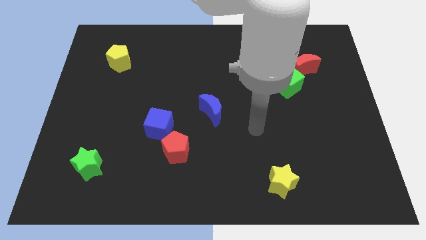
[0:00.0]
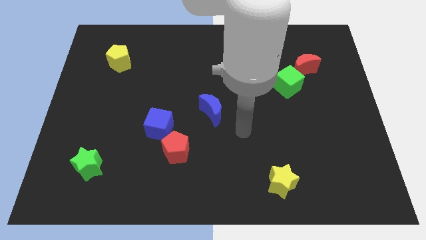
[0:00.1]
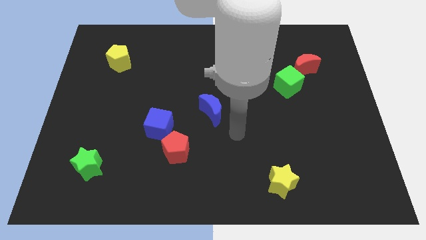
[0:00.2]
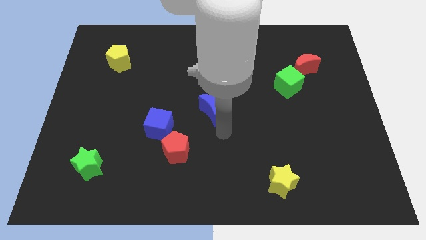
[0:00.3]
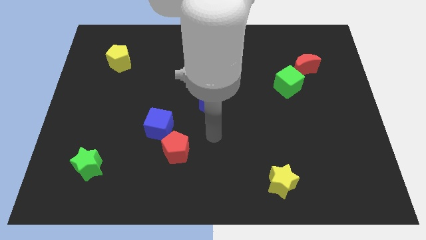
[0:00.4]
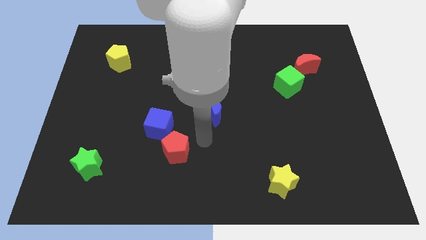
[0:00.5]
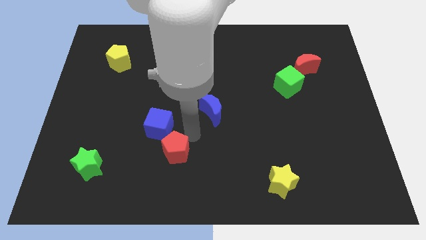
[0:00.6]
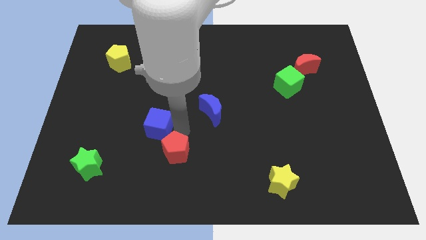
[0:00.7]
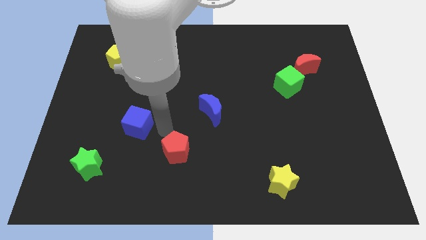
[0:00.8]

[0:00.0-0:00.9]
move the red pentagon away from the blue cube

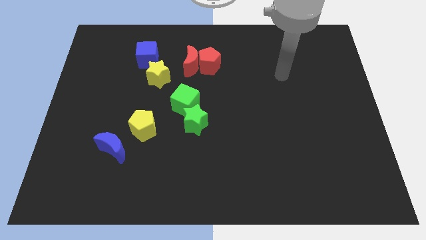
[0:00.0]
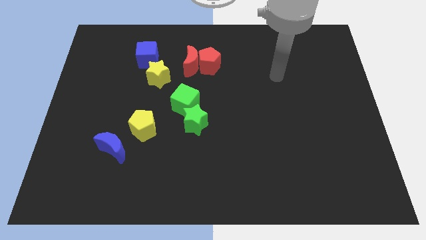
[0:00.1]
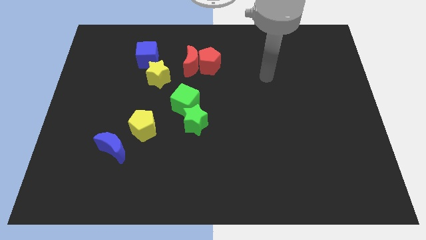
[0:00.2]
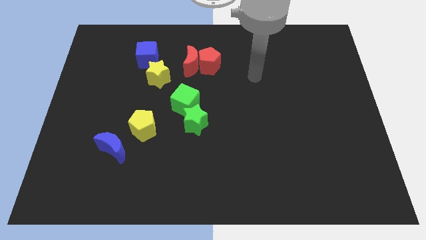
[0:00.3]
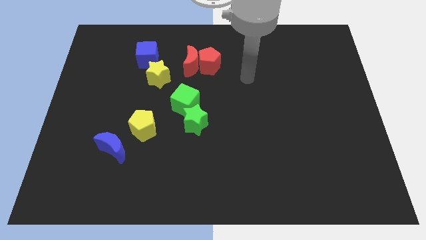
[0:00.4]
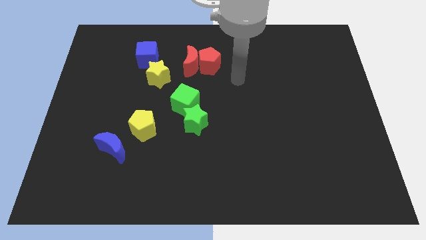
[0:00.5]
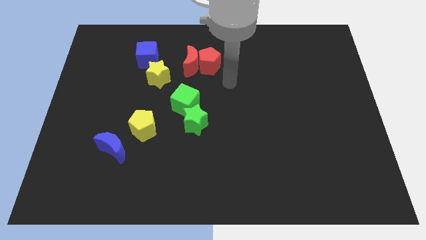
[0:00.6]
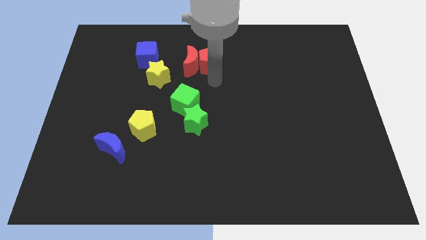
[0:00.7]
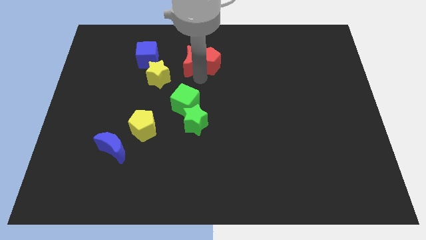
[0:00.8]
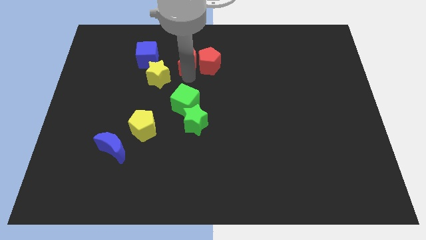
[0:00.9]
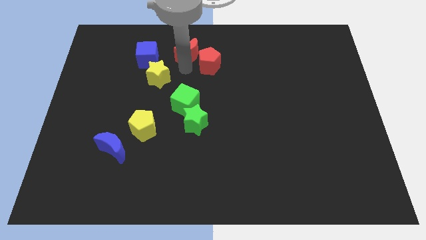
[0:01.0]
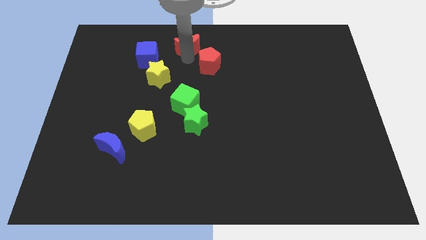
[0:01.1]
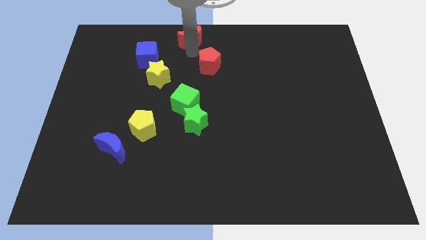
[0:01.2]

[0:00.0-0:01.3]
pull the red pentagon apart from the red moon

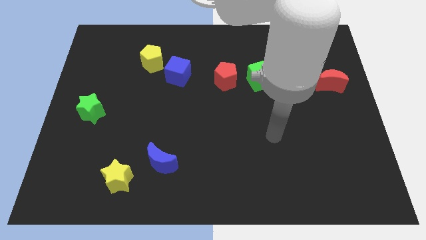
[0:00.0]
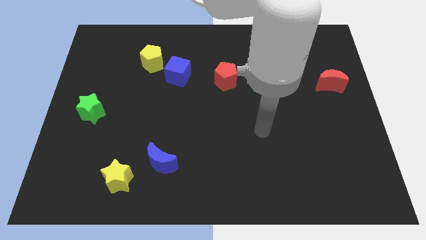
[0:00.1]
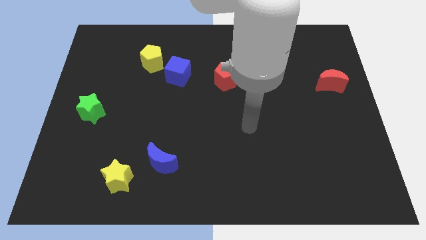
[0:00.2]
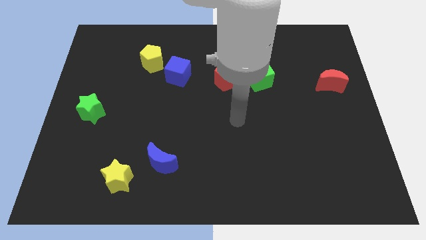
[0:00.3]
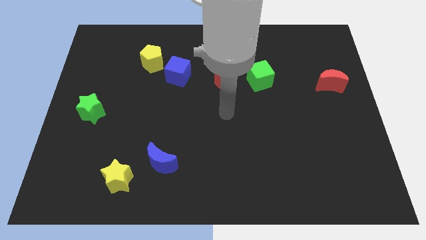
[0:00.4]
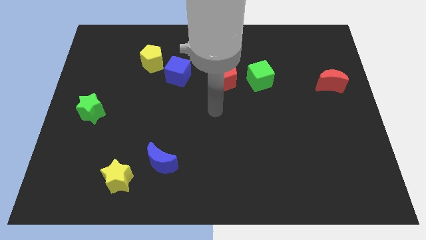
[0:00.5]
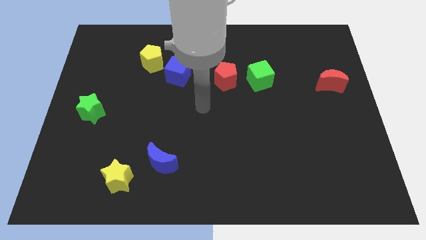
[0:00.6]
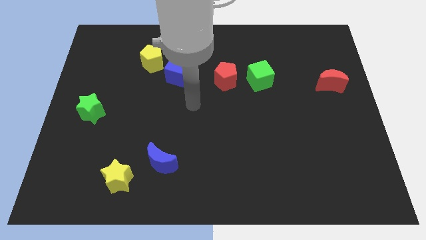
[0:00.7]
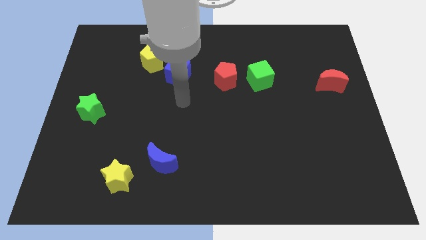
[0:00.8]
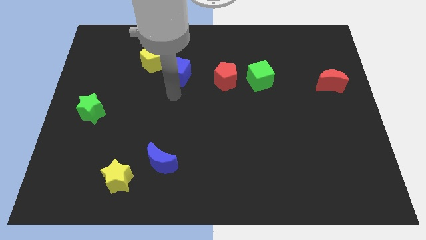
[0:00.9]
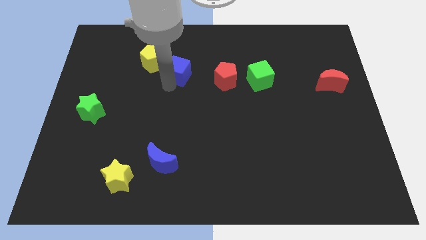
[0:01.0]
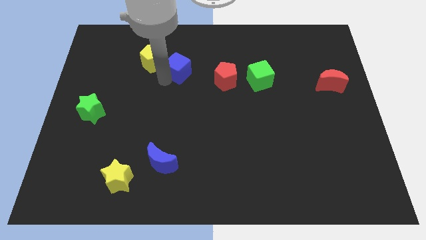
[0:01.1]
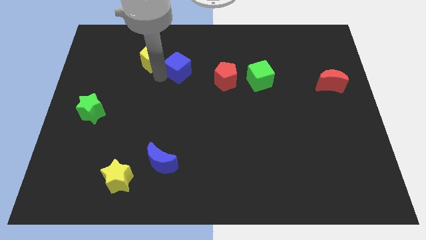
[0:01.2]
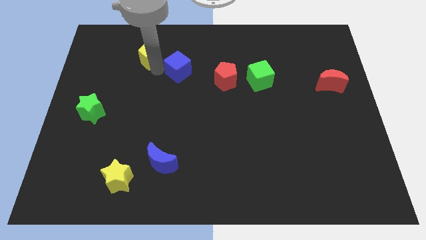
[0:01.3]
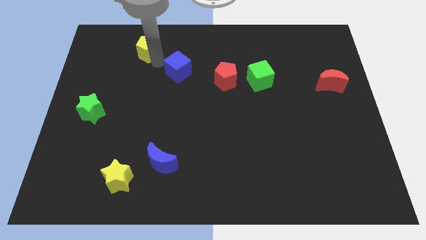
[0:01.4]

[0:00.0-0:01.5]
move the blue cube away from the yellow pentagon

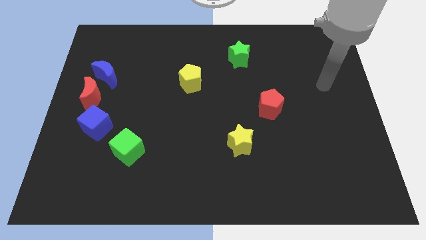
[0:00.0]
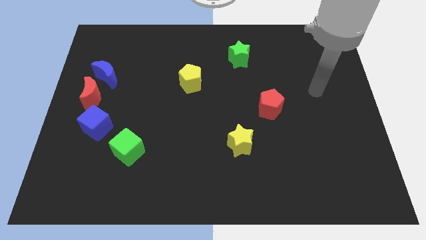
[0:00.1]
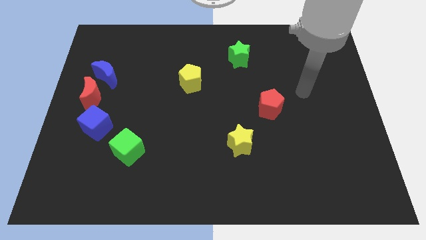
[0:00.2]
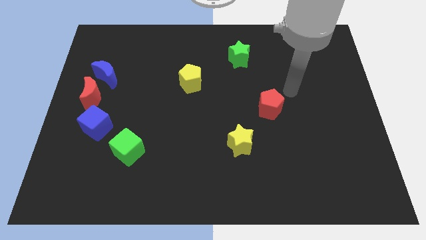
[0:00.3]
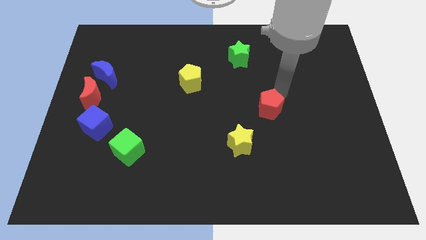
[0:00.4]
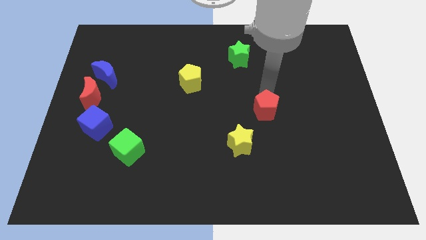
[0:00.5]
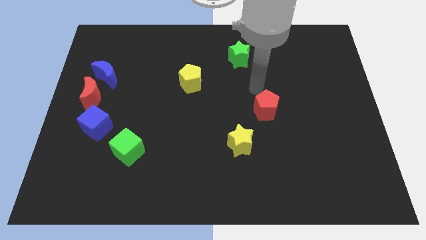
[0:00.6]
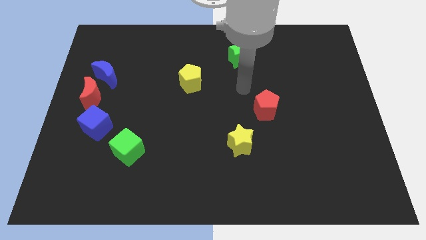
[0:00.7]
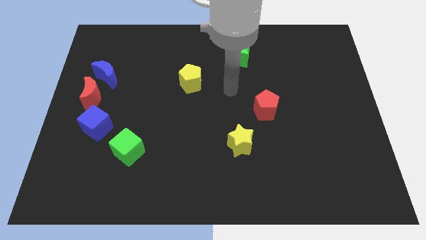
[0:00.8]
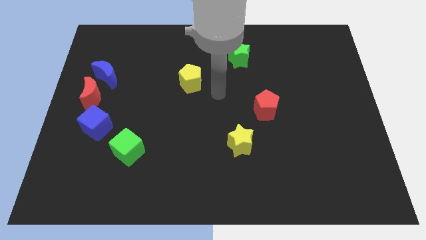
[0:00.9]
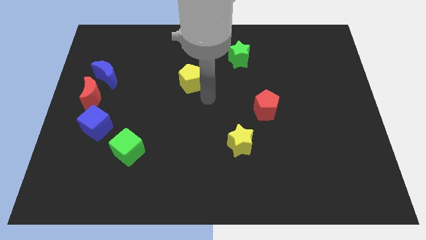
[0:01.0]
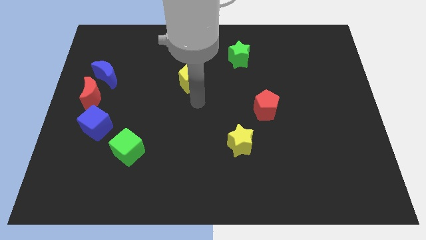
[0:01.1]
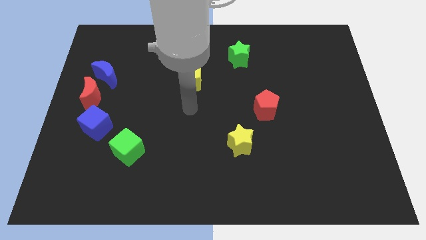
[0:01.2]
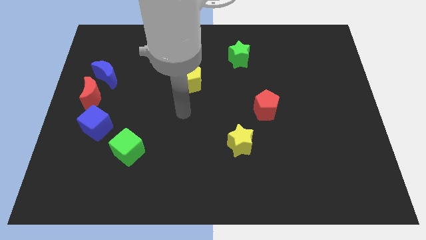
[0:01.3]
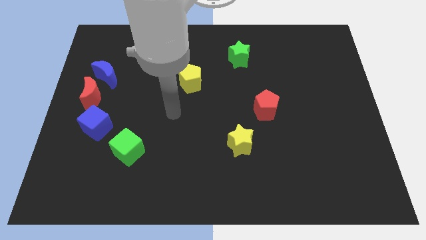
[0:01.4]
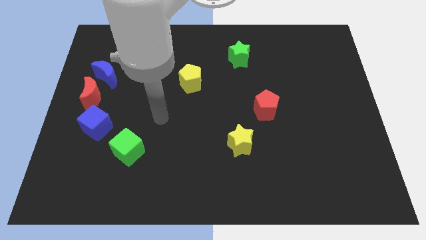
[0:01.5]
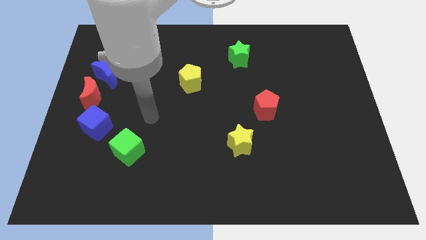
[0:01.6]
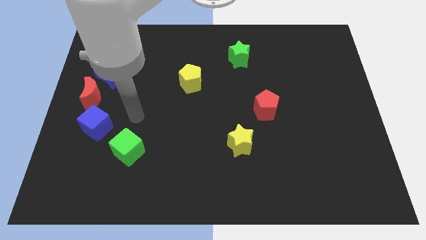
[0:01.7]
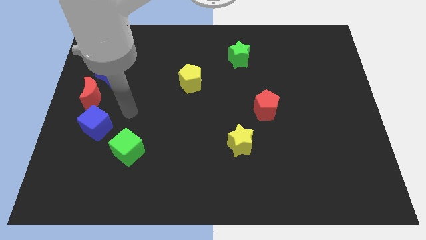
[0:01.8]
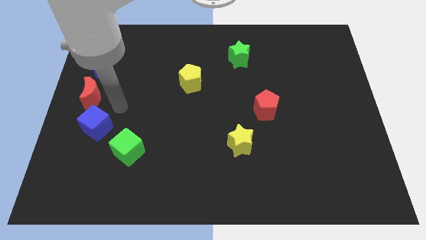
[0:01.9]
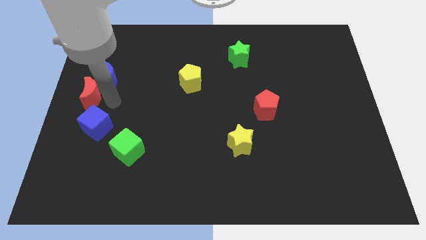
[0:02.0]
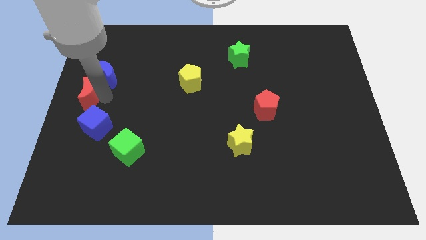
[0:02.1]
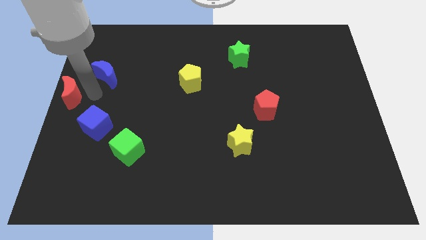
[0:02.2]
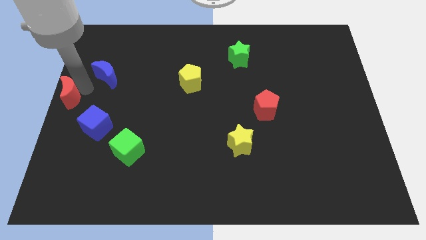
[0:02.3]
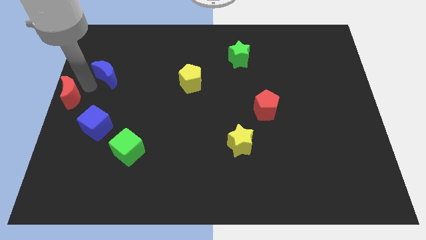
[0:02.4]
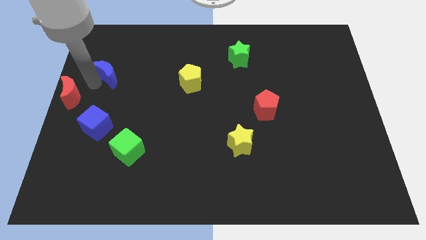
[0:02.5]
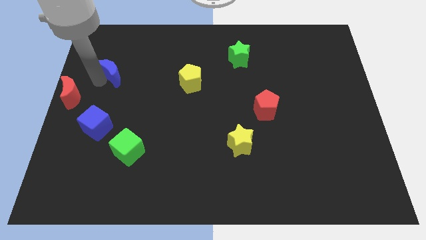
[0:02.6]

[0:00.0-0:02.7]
pull the blue moon apart from the red moon

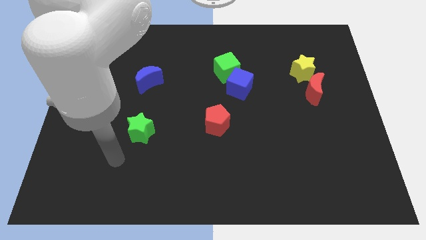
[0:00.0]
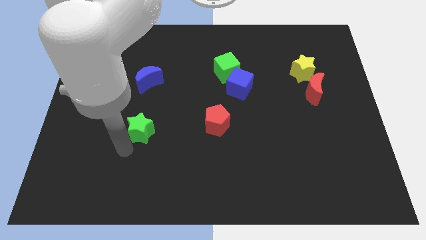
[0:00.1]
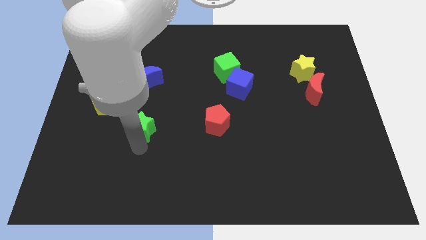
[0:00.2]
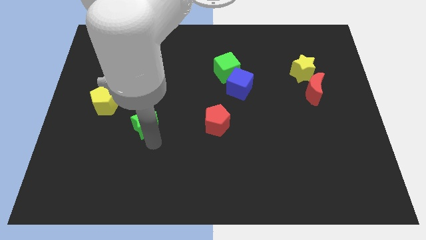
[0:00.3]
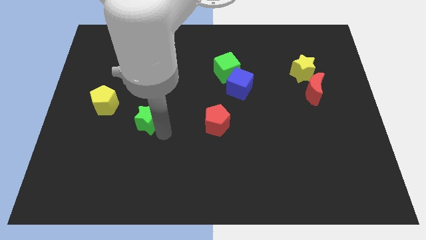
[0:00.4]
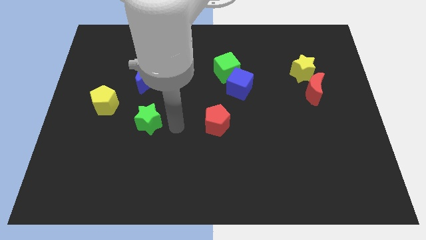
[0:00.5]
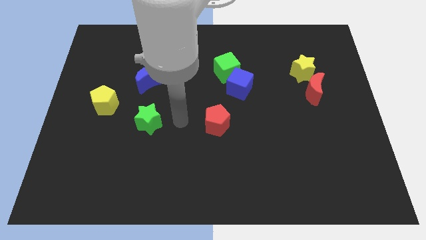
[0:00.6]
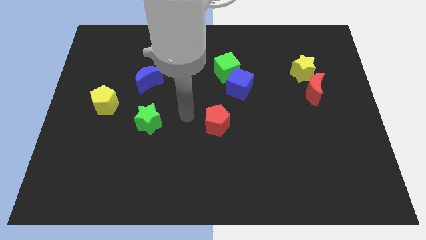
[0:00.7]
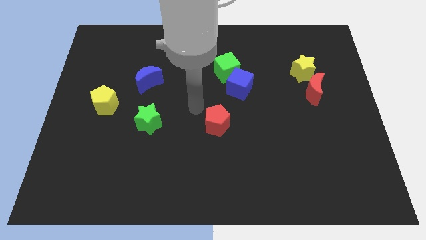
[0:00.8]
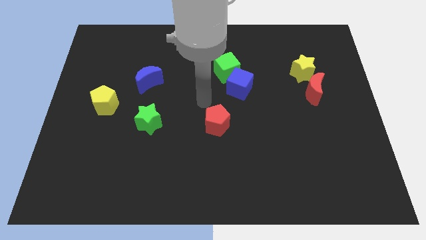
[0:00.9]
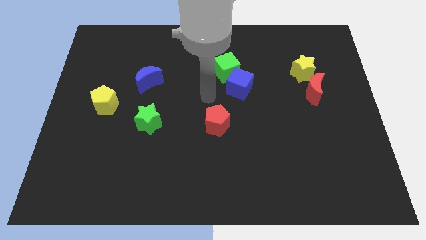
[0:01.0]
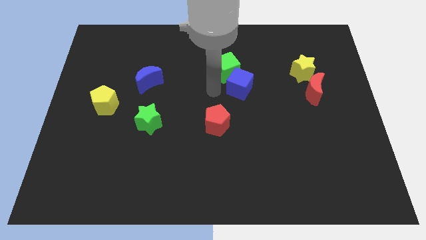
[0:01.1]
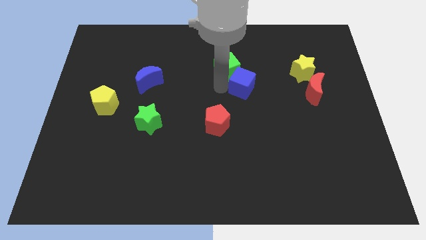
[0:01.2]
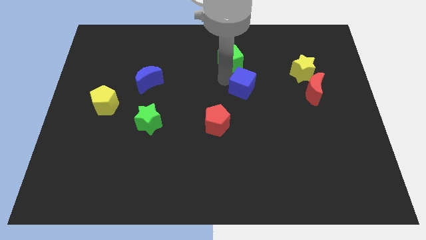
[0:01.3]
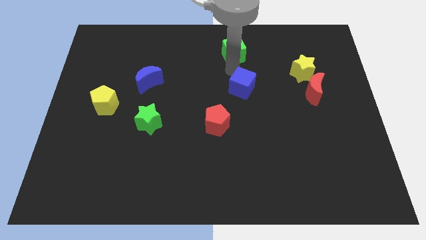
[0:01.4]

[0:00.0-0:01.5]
pull the blue cube apart from the green cube

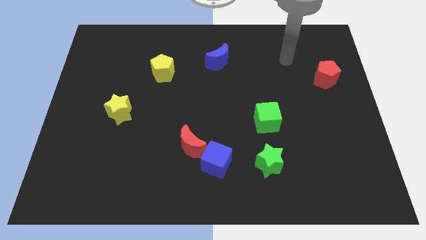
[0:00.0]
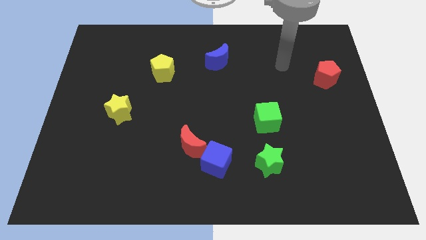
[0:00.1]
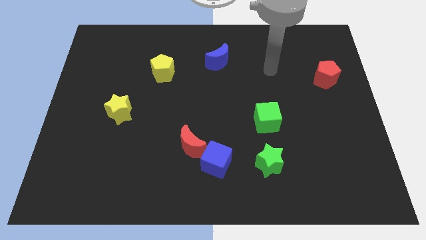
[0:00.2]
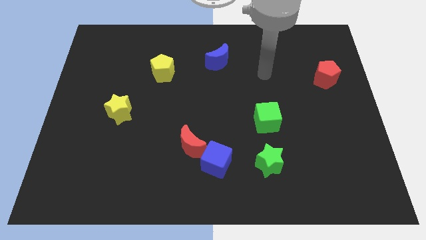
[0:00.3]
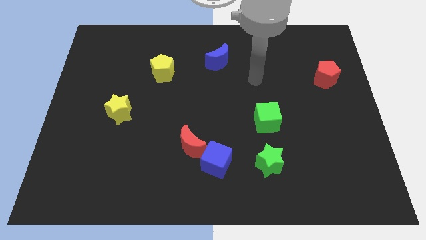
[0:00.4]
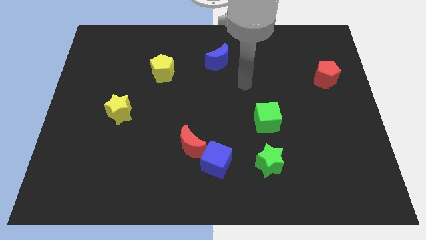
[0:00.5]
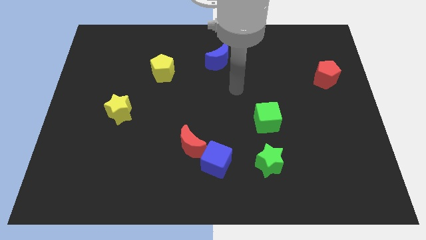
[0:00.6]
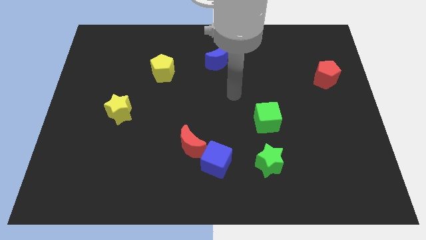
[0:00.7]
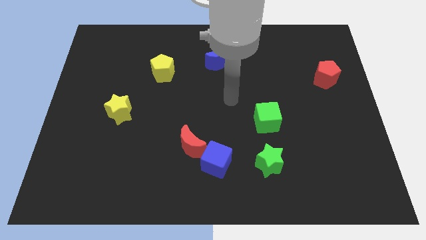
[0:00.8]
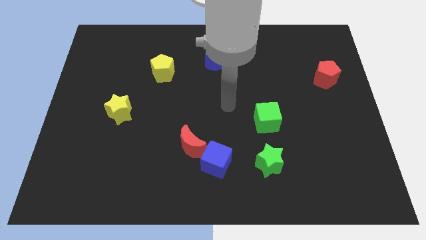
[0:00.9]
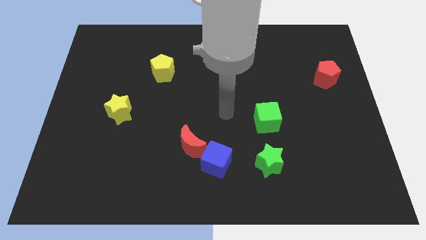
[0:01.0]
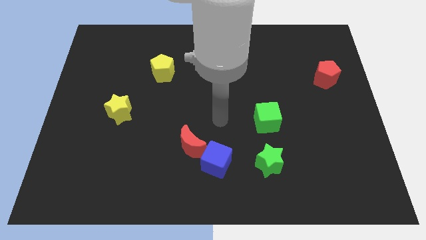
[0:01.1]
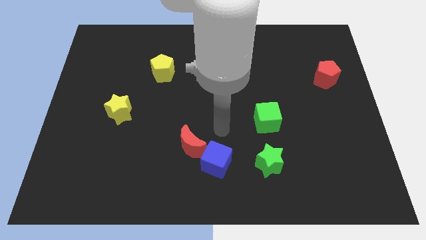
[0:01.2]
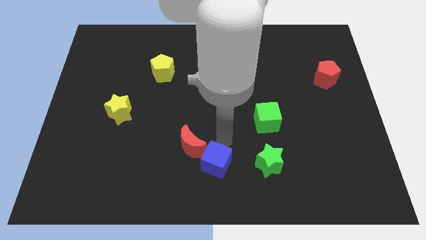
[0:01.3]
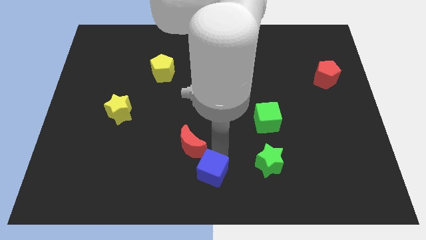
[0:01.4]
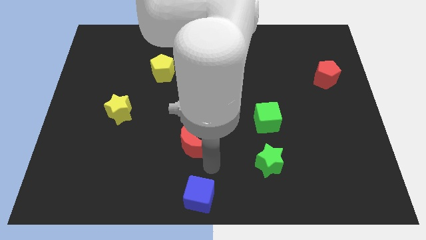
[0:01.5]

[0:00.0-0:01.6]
move the red moon away from the blue cube
